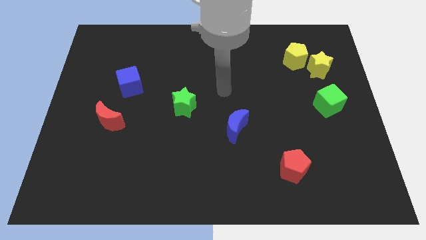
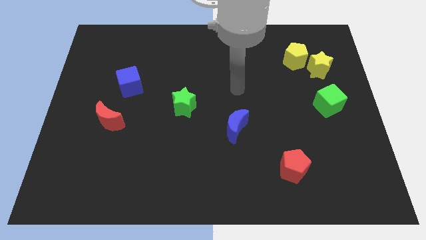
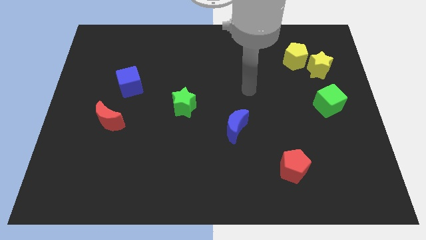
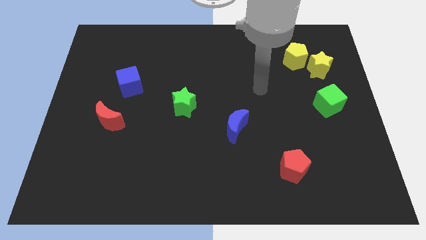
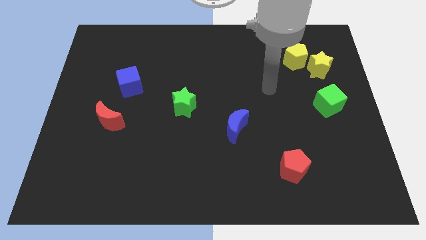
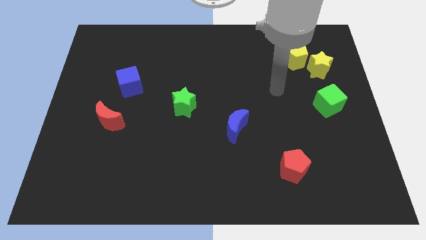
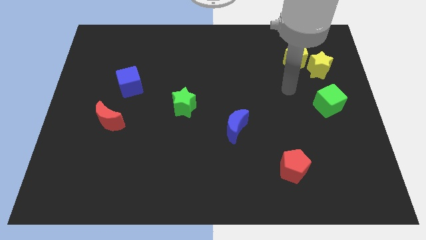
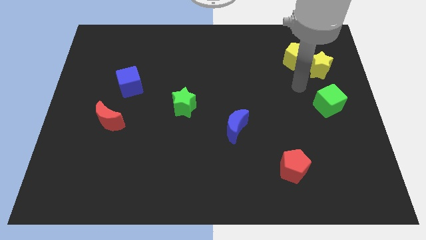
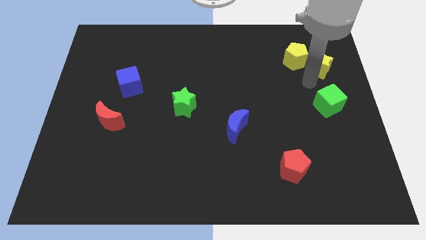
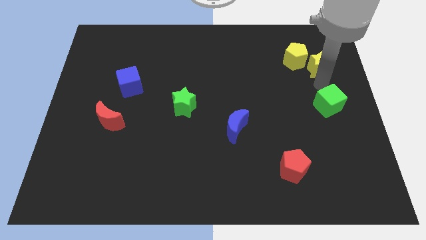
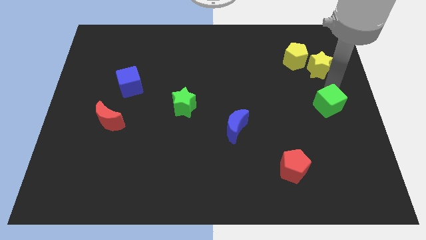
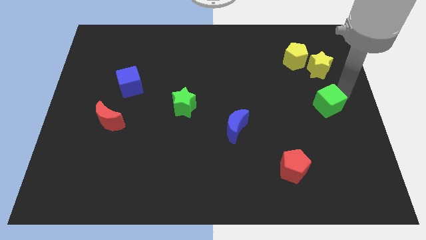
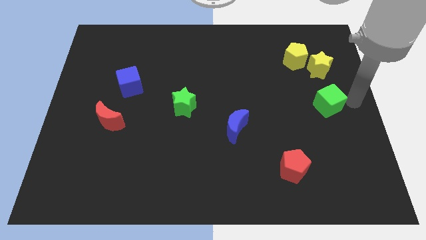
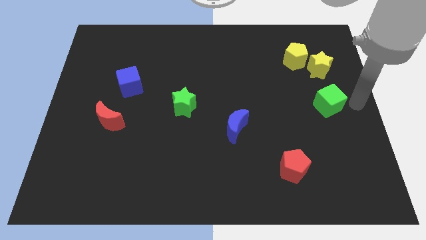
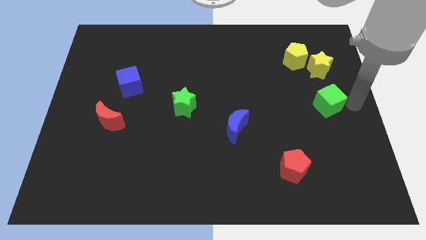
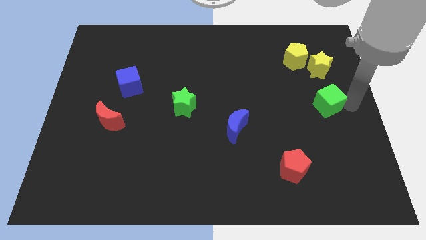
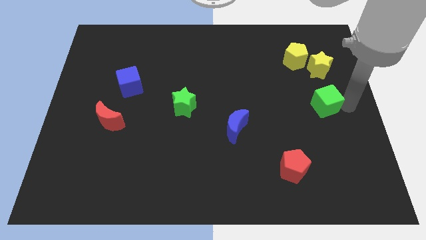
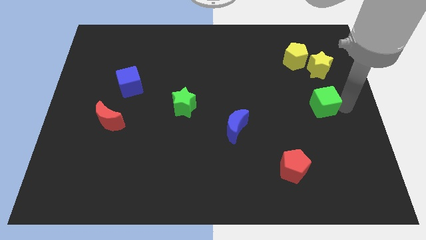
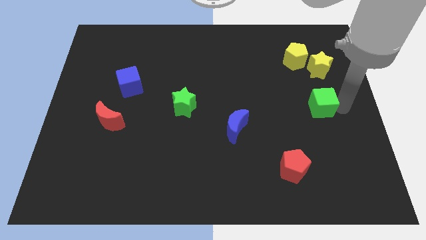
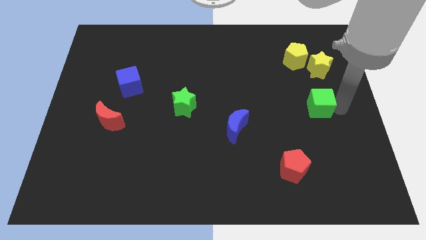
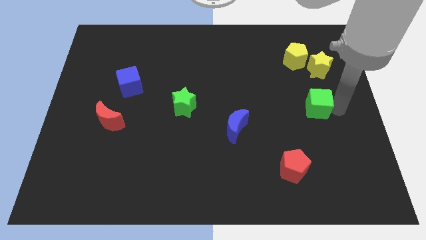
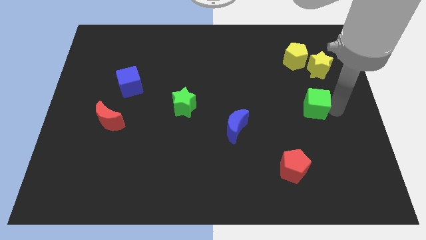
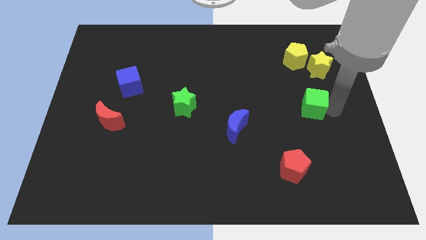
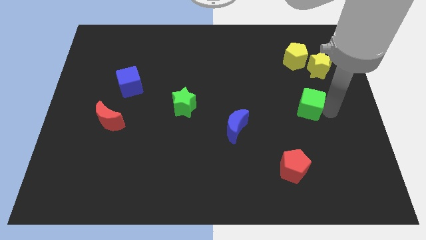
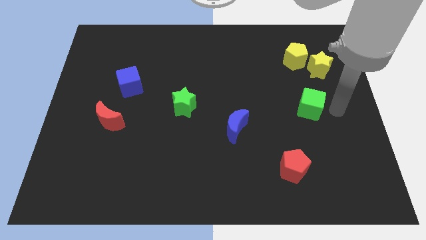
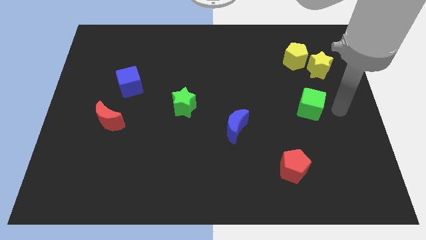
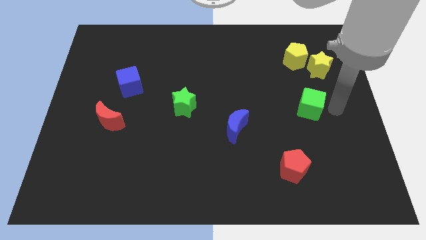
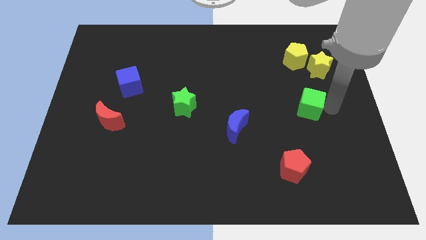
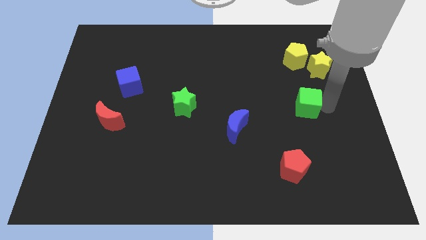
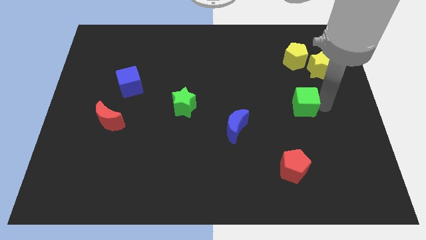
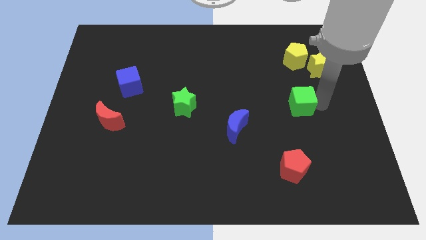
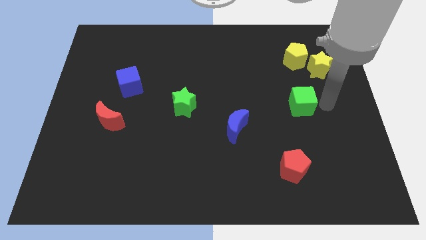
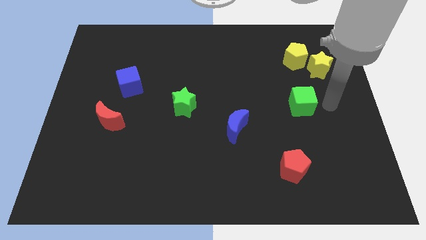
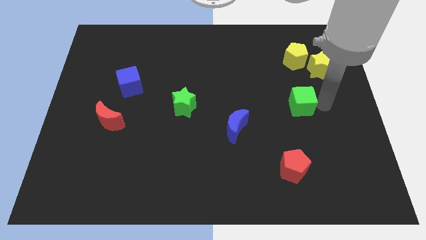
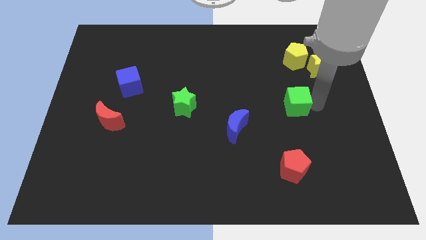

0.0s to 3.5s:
slightly slide the green cube to the left

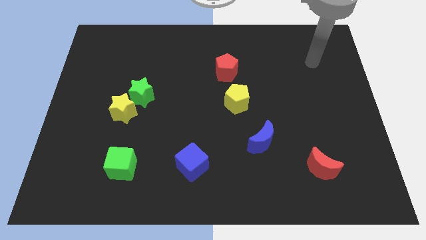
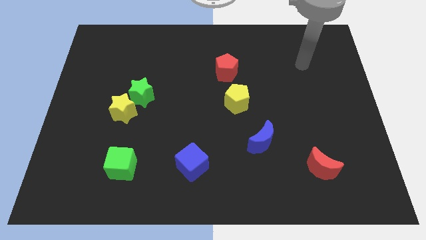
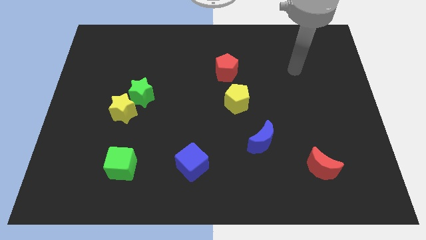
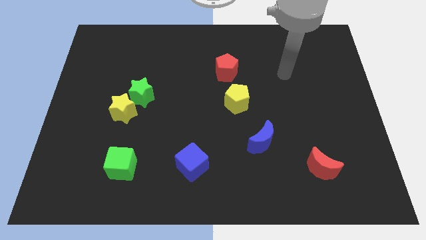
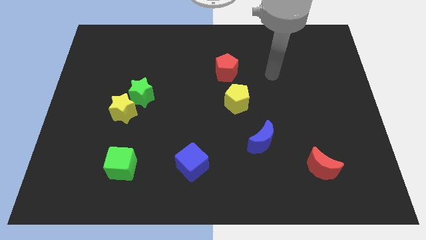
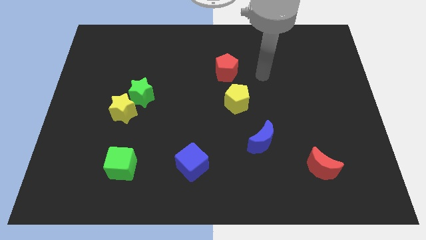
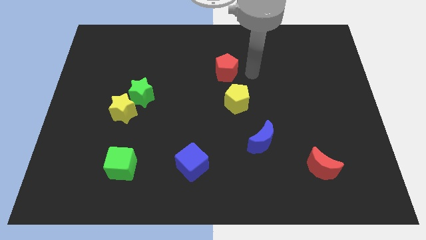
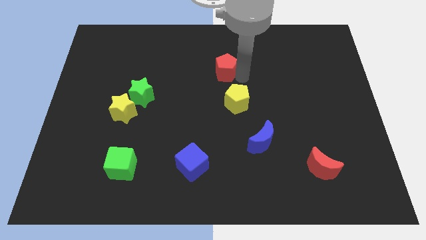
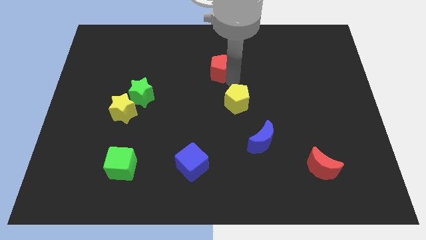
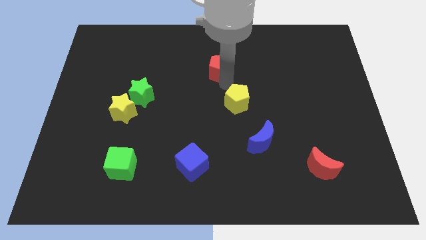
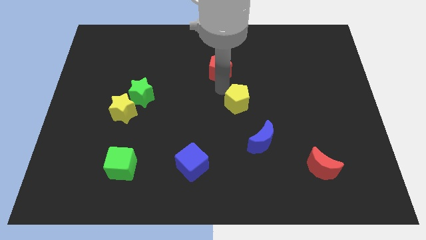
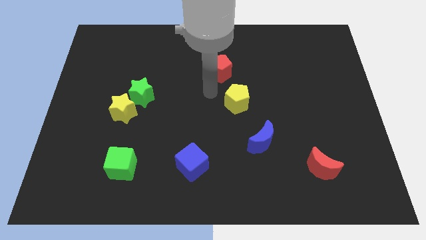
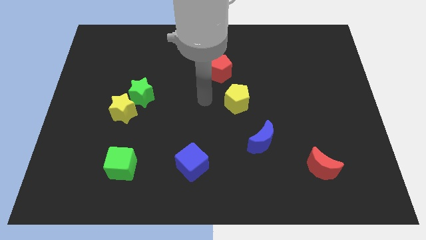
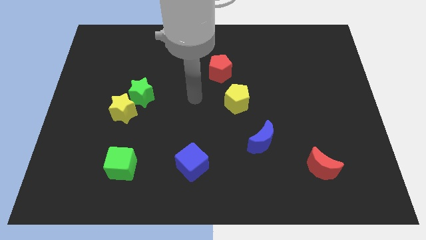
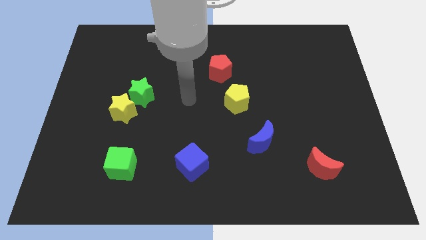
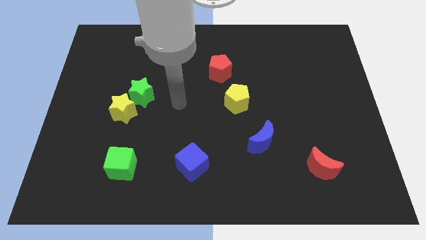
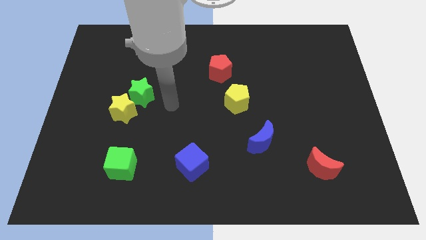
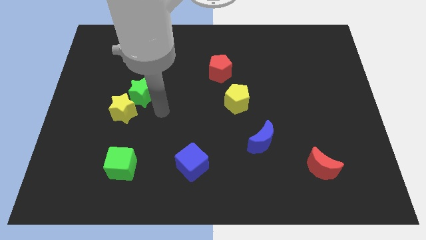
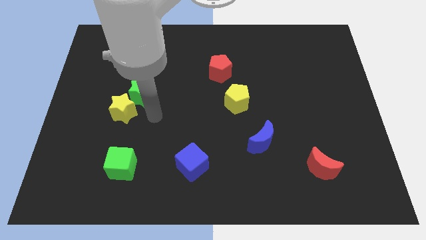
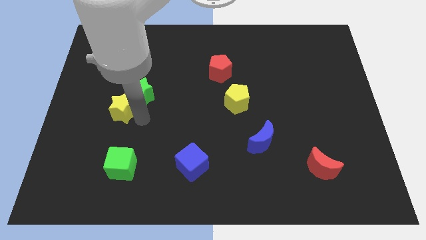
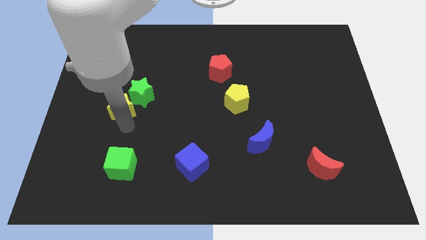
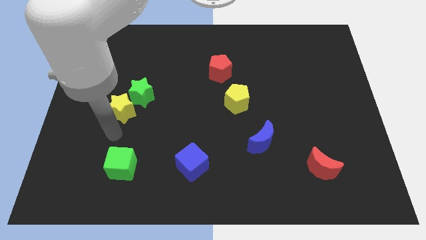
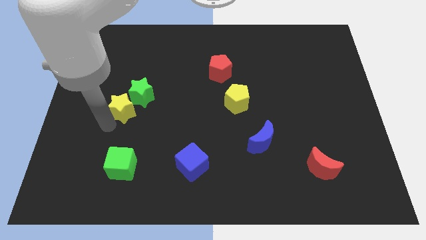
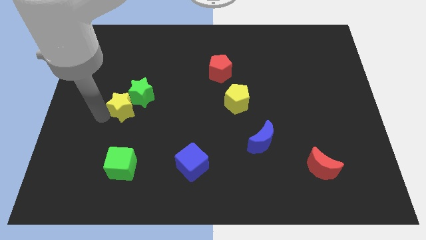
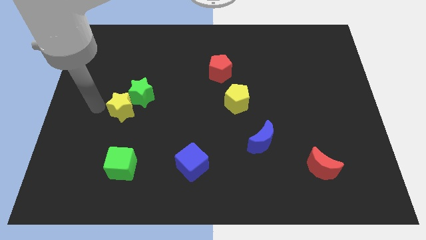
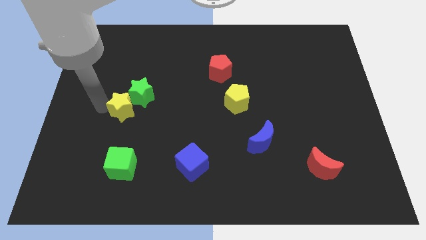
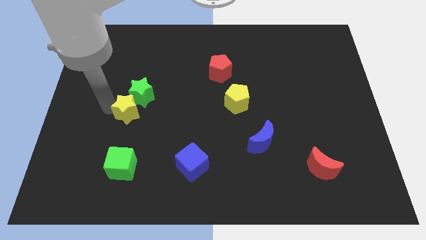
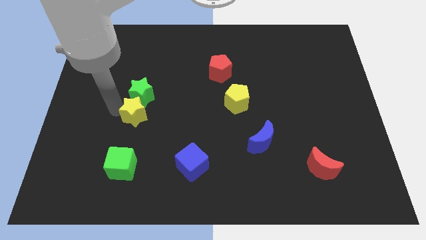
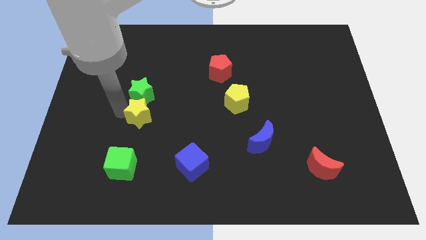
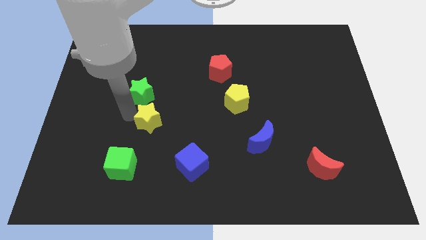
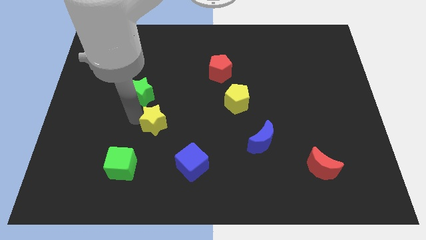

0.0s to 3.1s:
slightly move the yellow star right

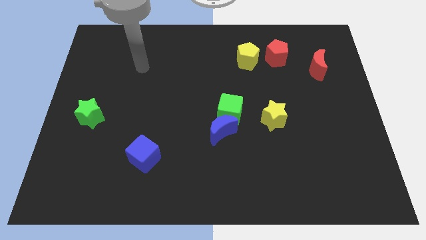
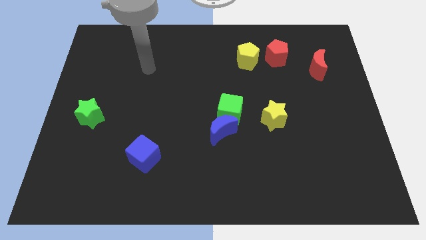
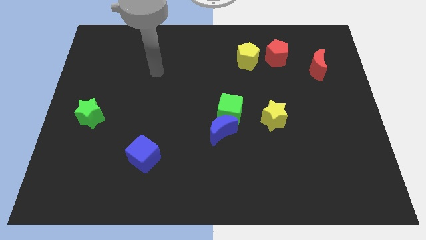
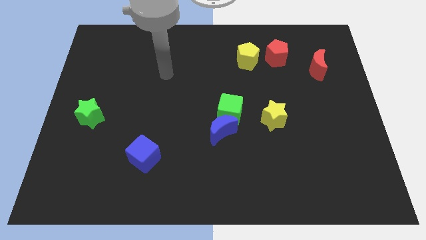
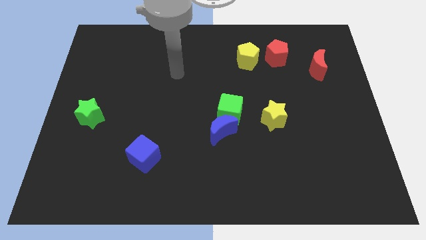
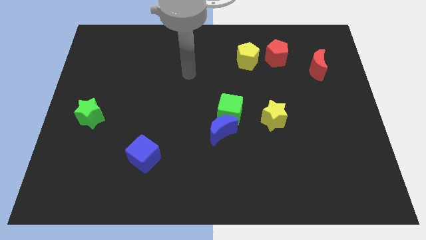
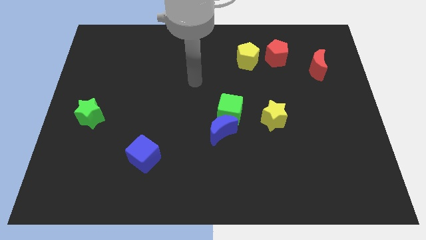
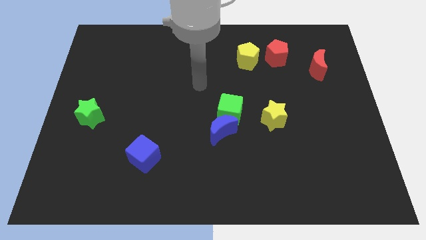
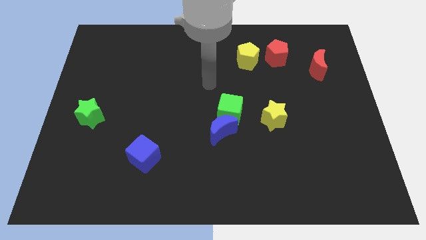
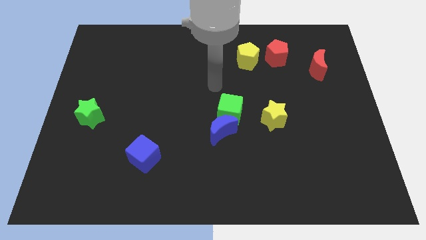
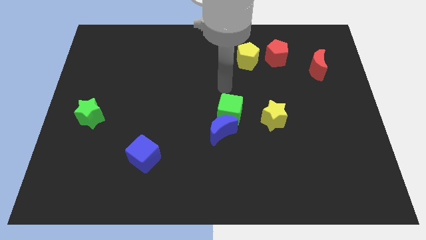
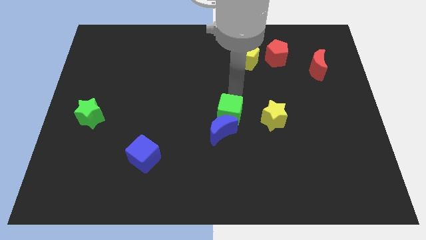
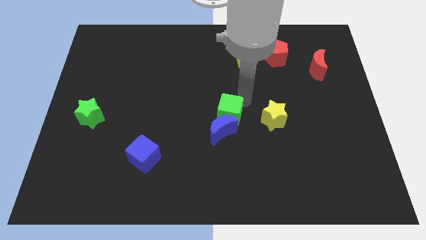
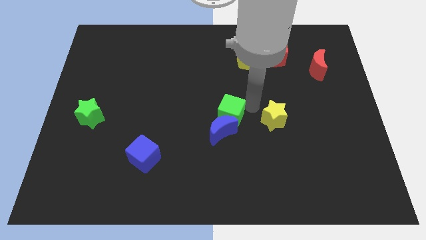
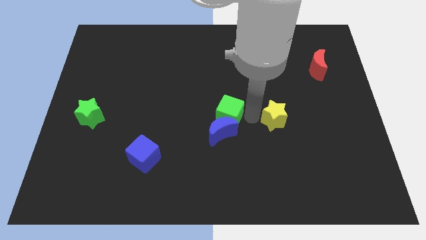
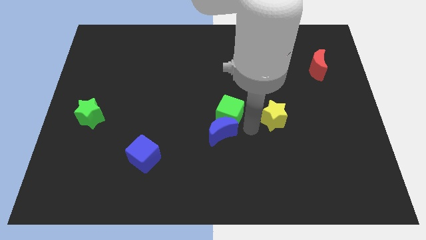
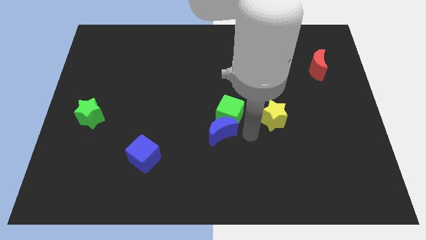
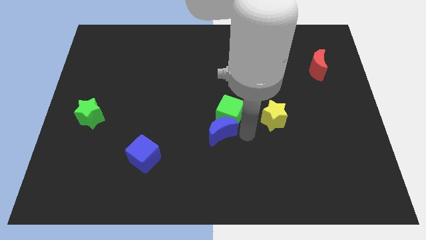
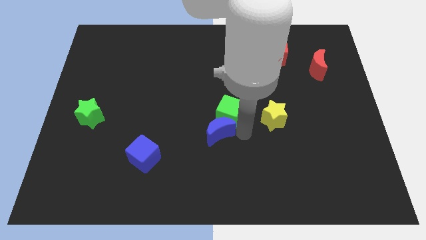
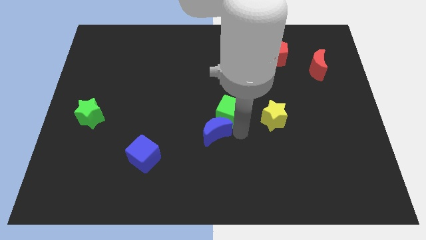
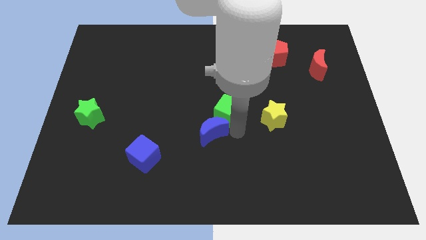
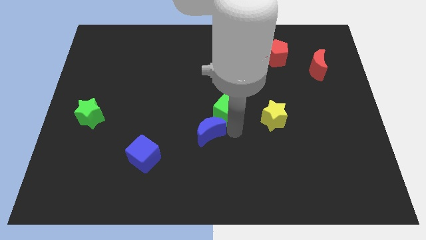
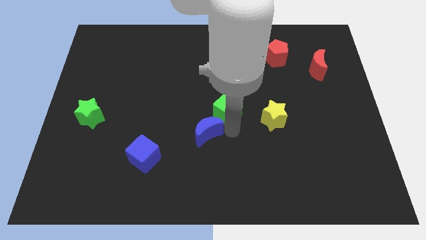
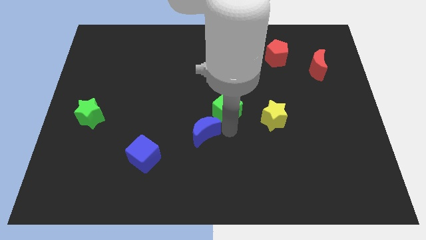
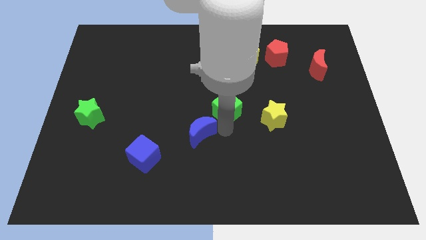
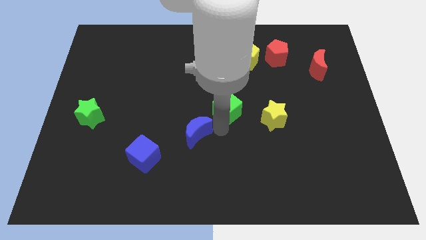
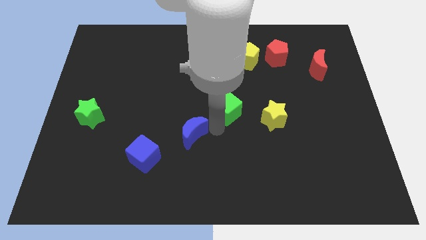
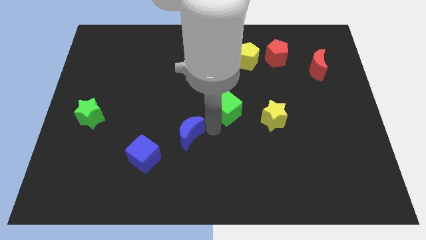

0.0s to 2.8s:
slightly move the blue moon to the left
